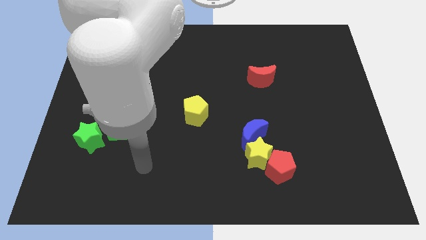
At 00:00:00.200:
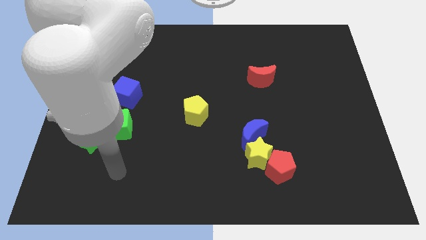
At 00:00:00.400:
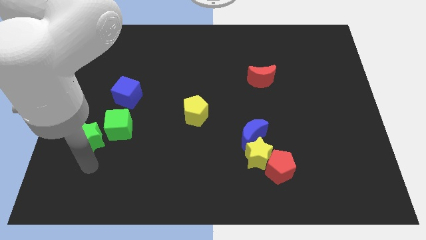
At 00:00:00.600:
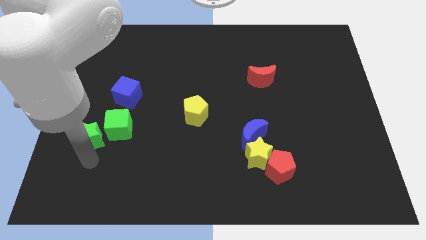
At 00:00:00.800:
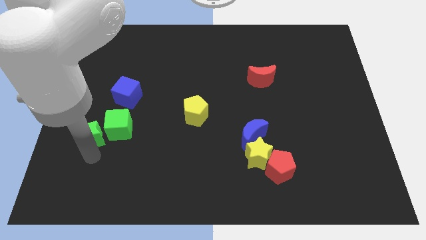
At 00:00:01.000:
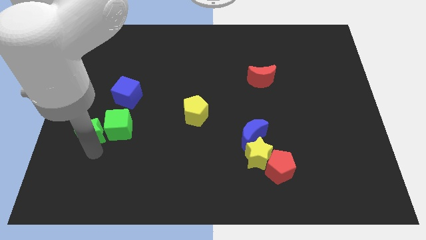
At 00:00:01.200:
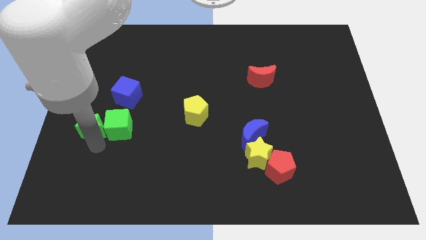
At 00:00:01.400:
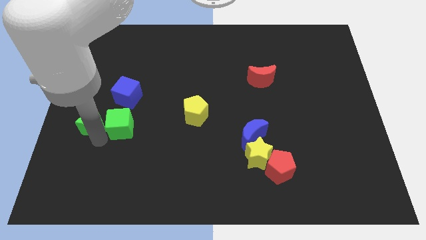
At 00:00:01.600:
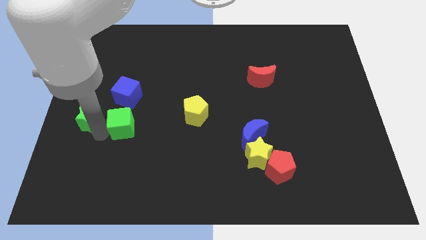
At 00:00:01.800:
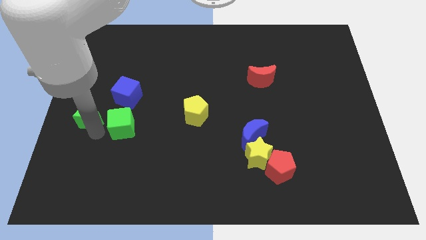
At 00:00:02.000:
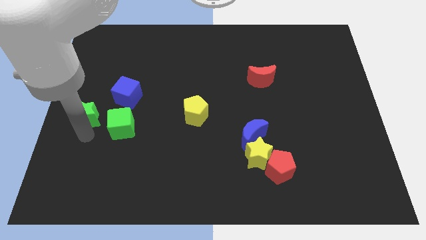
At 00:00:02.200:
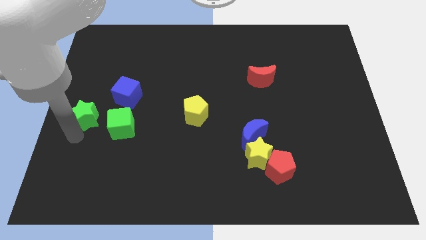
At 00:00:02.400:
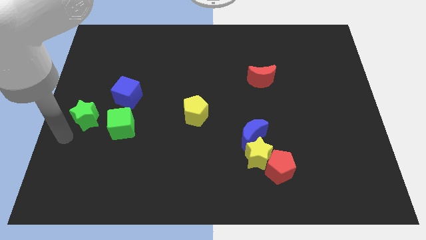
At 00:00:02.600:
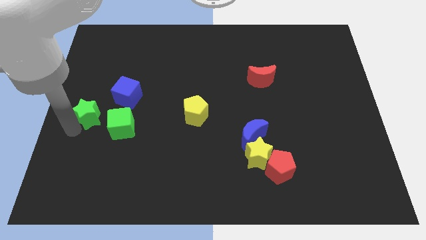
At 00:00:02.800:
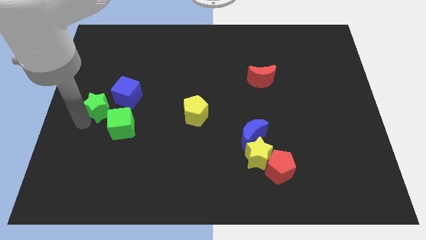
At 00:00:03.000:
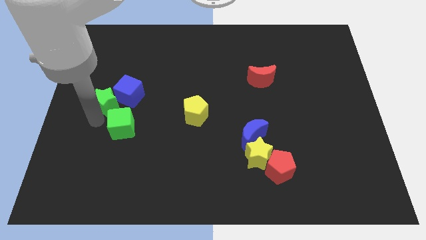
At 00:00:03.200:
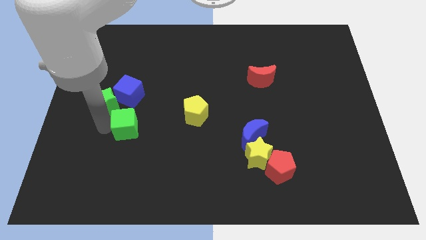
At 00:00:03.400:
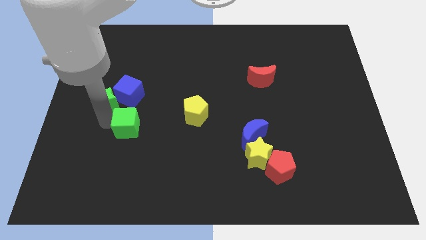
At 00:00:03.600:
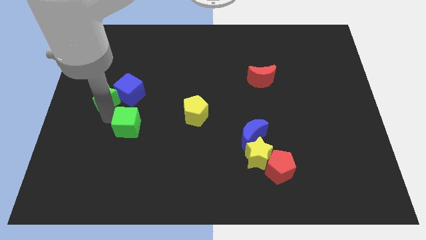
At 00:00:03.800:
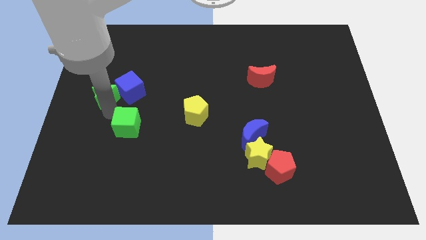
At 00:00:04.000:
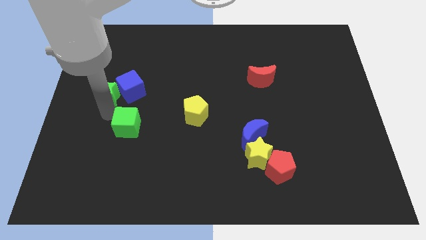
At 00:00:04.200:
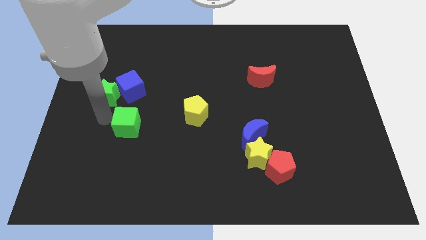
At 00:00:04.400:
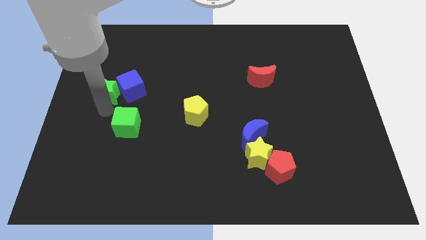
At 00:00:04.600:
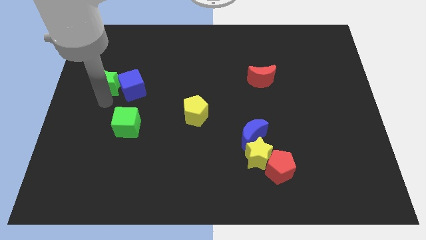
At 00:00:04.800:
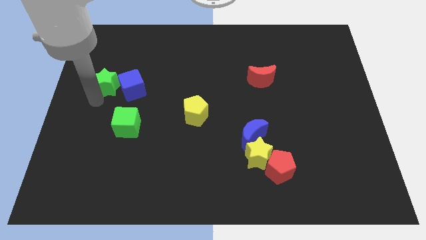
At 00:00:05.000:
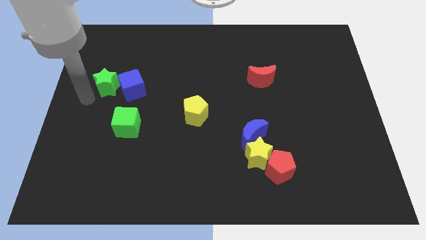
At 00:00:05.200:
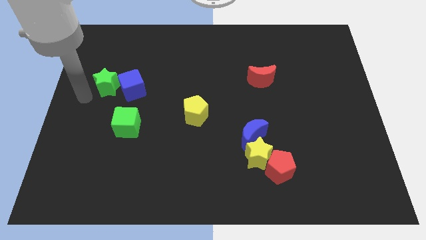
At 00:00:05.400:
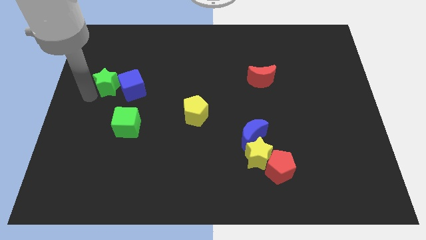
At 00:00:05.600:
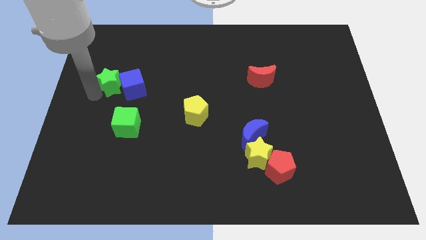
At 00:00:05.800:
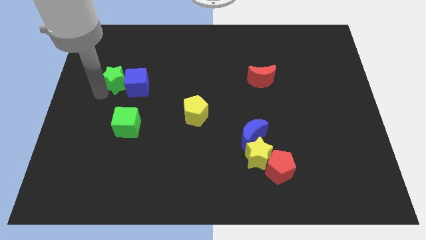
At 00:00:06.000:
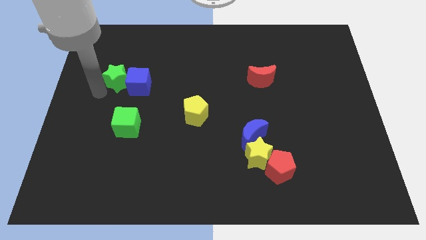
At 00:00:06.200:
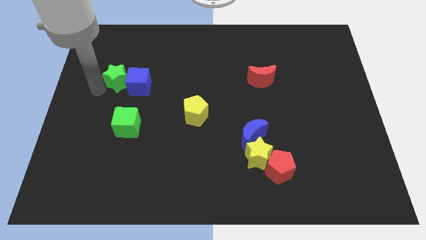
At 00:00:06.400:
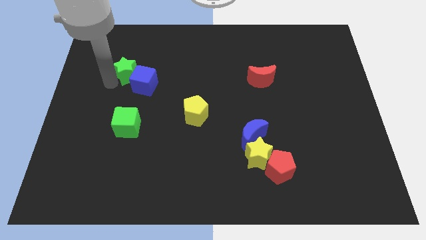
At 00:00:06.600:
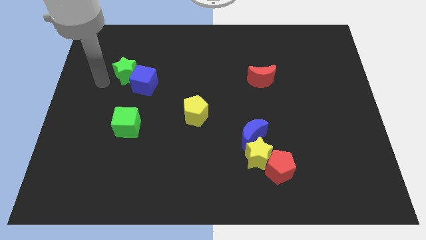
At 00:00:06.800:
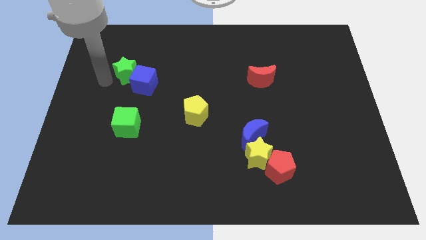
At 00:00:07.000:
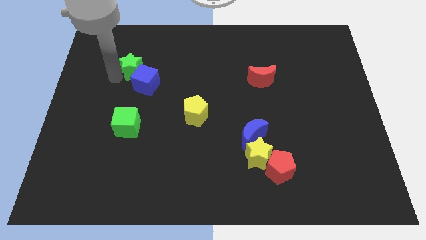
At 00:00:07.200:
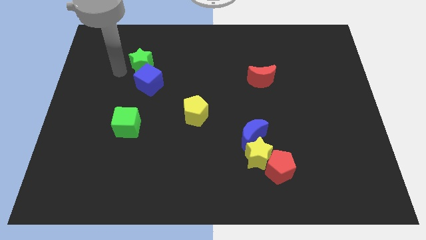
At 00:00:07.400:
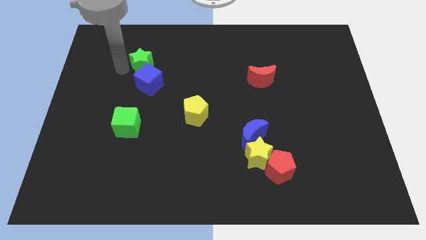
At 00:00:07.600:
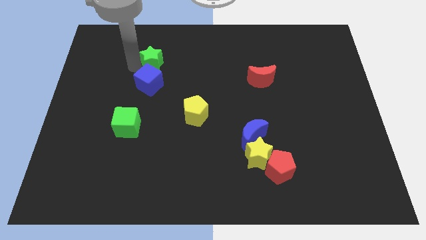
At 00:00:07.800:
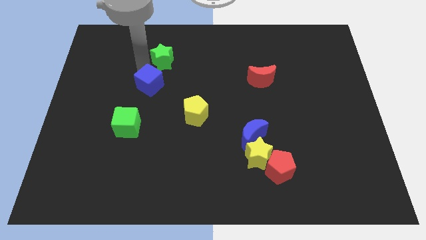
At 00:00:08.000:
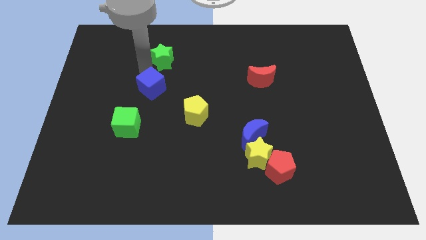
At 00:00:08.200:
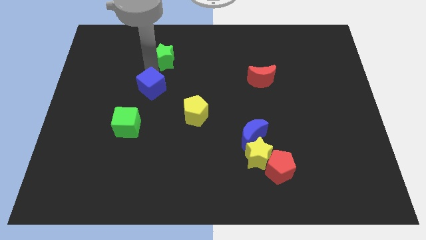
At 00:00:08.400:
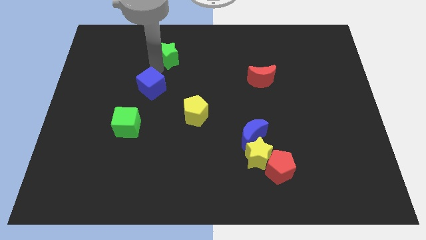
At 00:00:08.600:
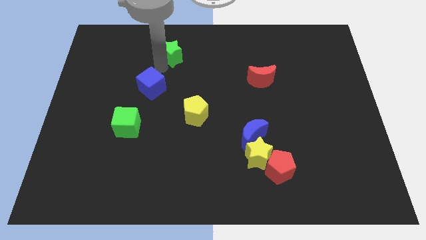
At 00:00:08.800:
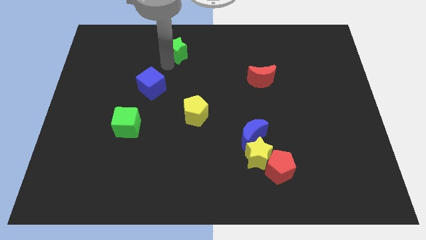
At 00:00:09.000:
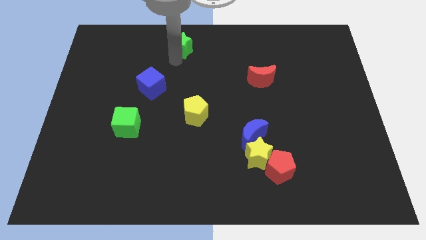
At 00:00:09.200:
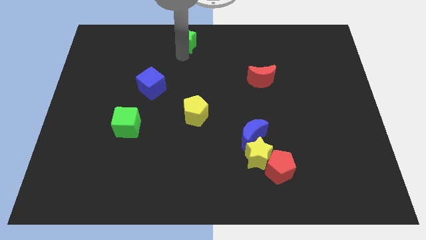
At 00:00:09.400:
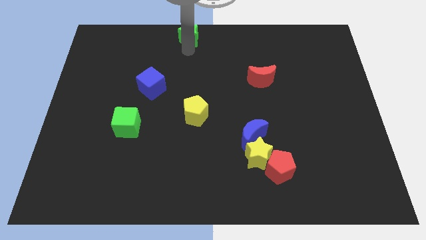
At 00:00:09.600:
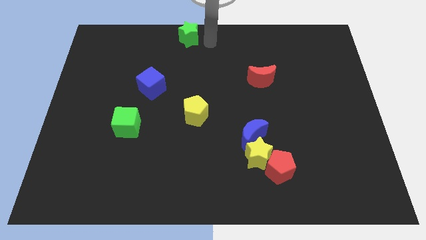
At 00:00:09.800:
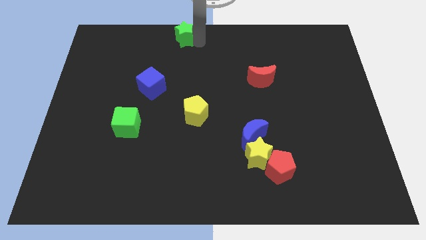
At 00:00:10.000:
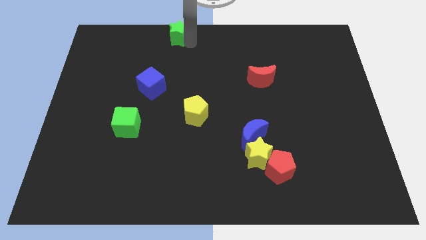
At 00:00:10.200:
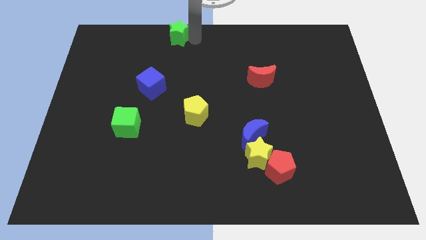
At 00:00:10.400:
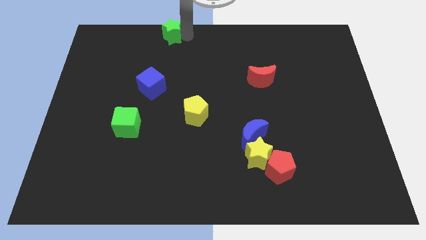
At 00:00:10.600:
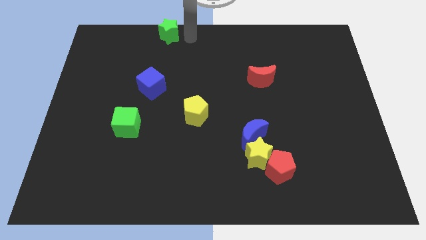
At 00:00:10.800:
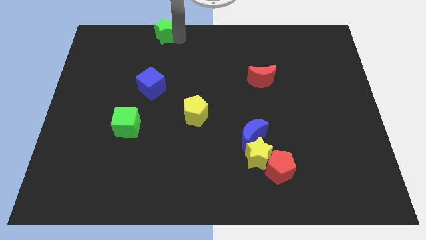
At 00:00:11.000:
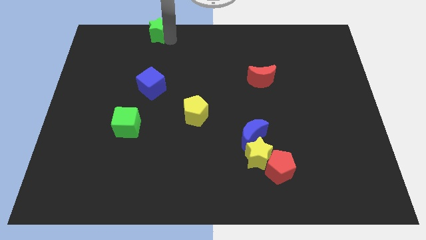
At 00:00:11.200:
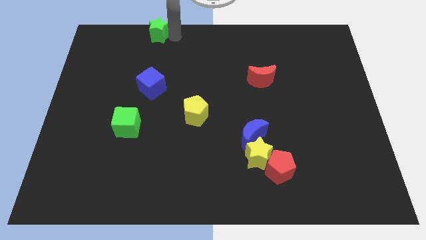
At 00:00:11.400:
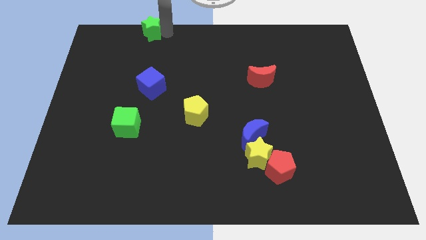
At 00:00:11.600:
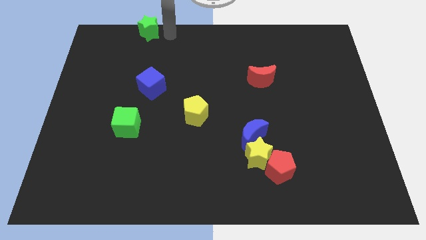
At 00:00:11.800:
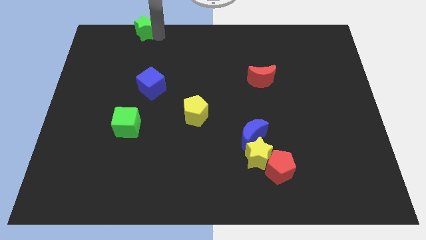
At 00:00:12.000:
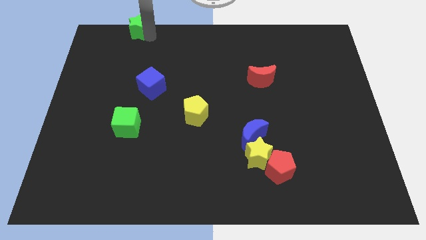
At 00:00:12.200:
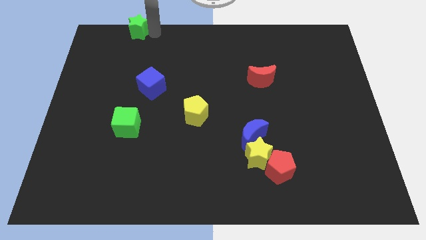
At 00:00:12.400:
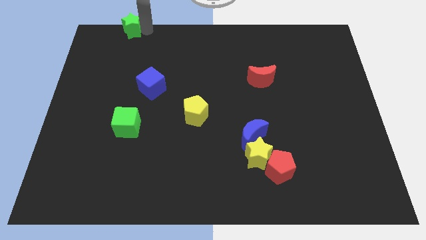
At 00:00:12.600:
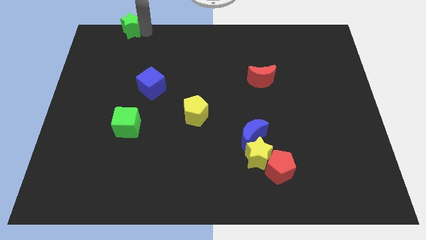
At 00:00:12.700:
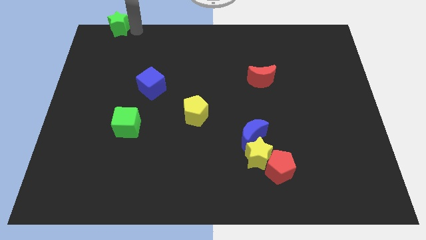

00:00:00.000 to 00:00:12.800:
move the green star to the top left
